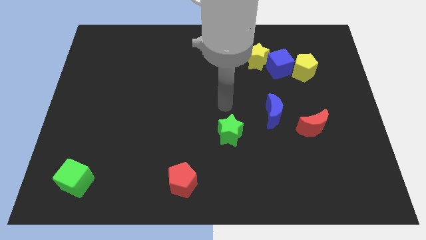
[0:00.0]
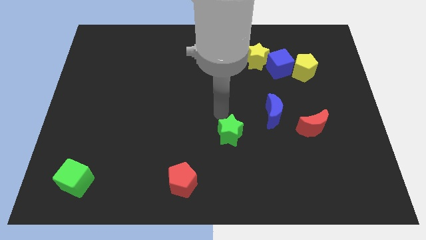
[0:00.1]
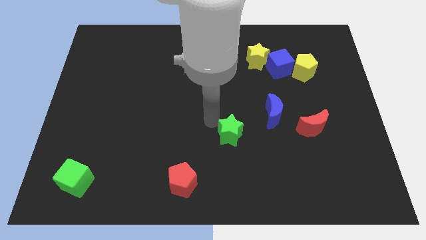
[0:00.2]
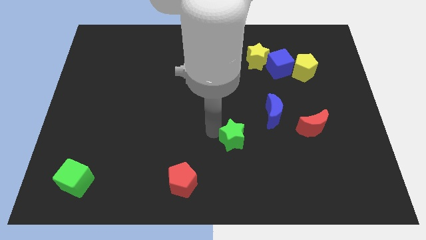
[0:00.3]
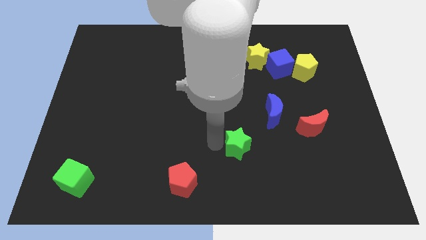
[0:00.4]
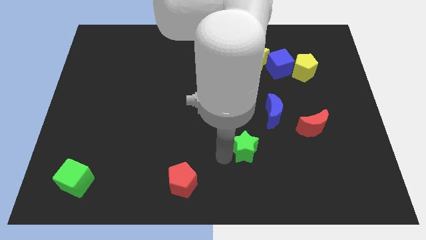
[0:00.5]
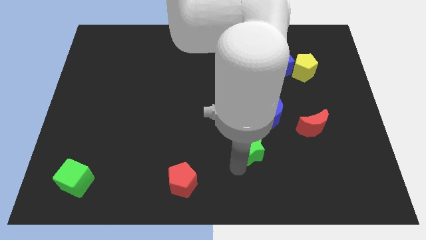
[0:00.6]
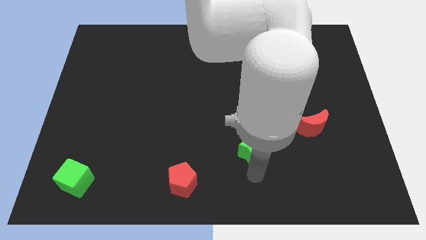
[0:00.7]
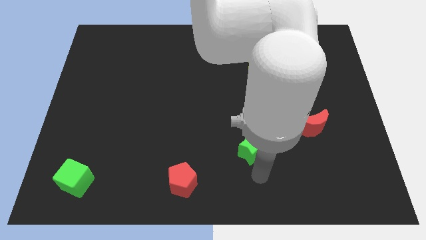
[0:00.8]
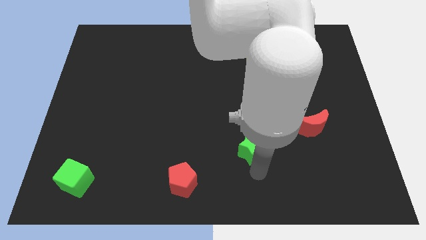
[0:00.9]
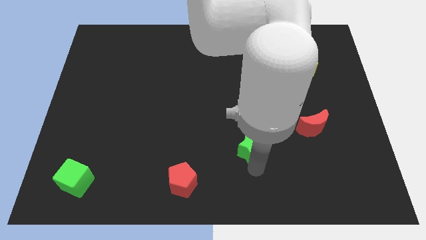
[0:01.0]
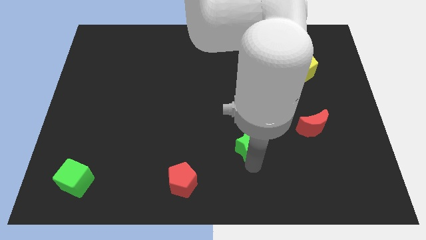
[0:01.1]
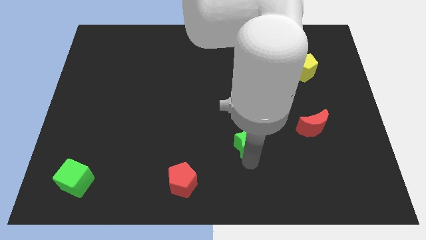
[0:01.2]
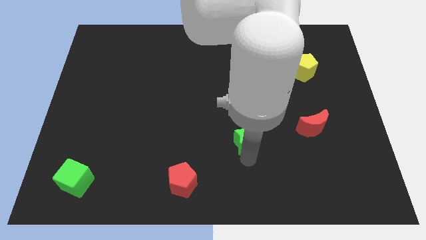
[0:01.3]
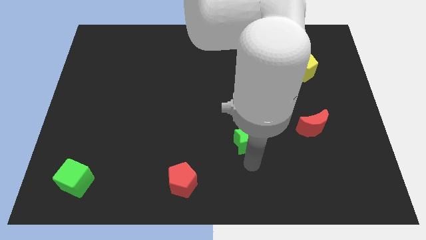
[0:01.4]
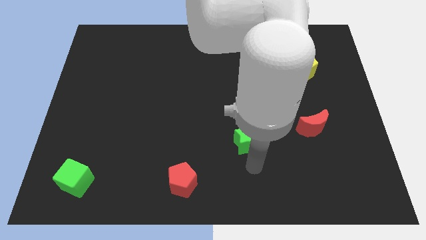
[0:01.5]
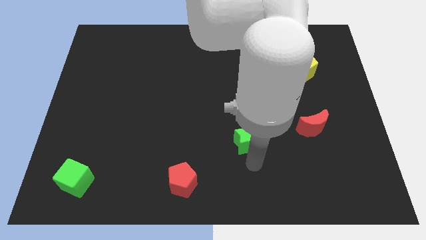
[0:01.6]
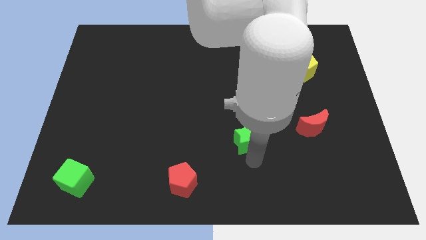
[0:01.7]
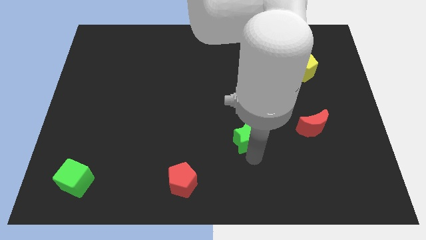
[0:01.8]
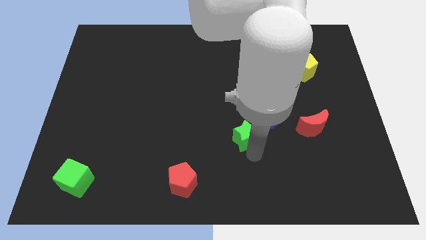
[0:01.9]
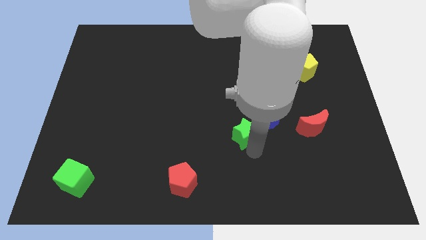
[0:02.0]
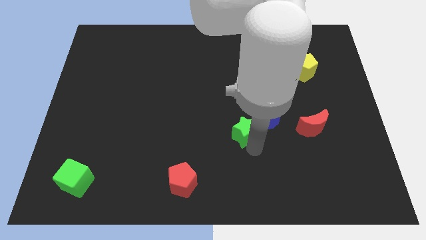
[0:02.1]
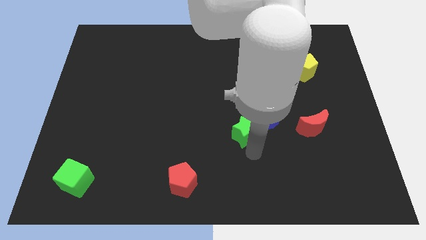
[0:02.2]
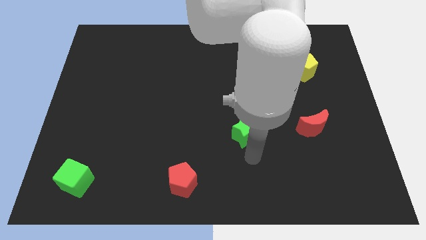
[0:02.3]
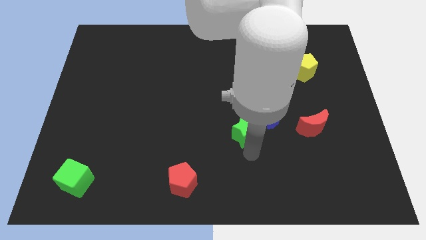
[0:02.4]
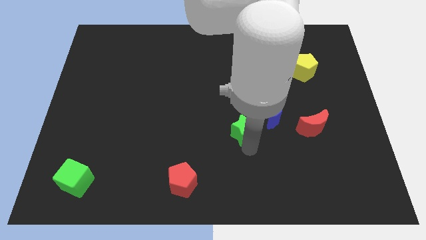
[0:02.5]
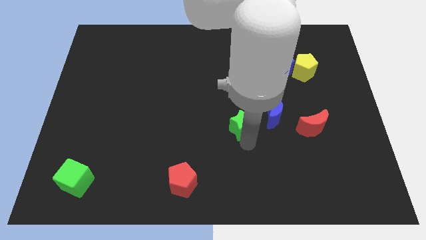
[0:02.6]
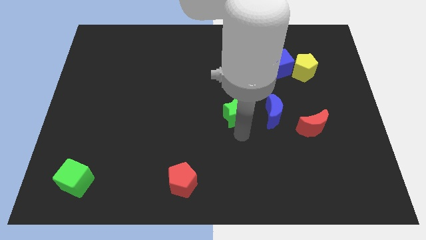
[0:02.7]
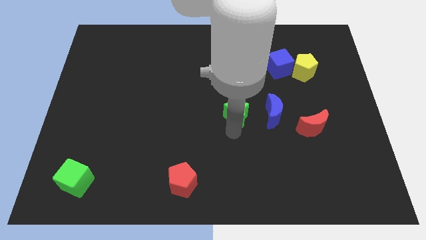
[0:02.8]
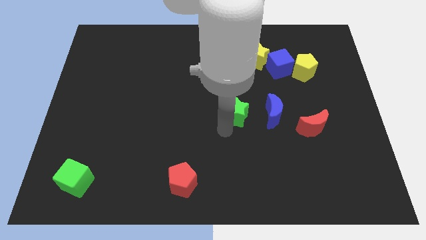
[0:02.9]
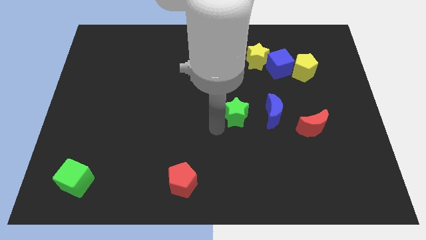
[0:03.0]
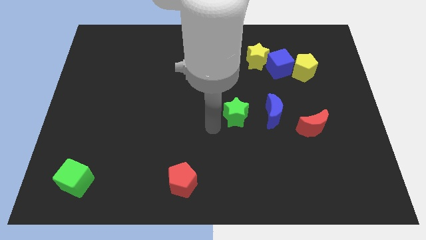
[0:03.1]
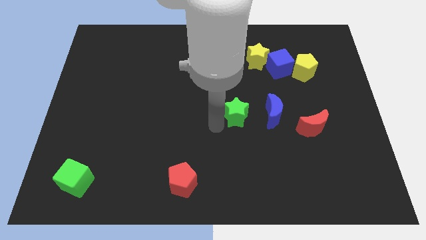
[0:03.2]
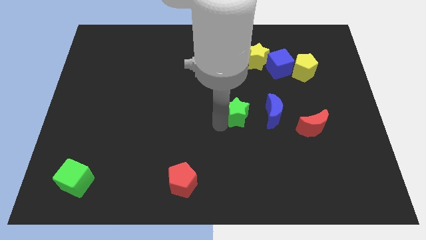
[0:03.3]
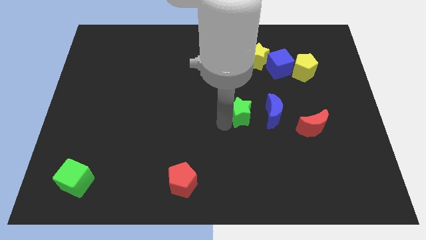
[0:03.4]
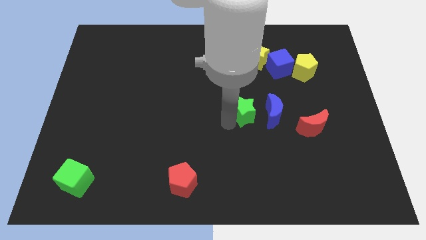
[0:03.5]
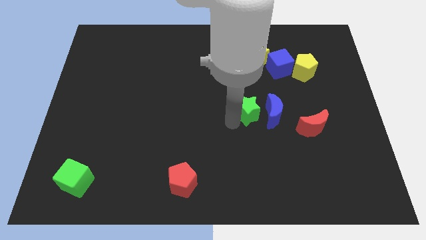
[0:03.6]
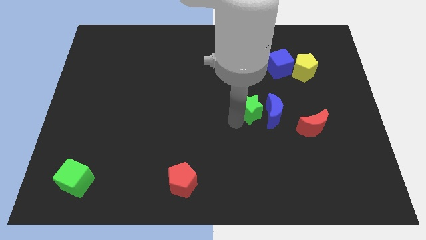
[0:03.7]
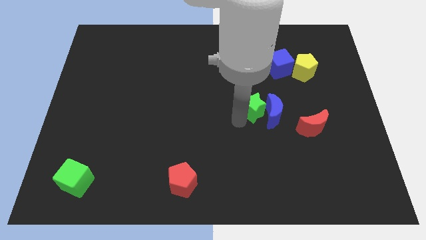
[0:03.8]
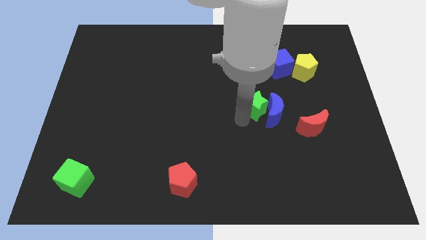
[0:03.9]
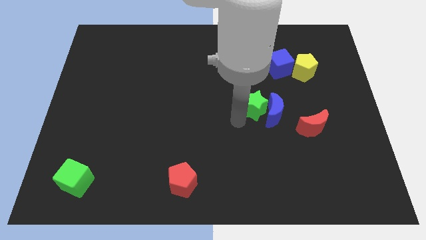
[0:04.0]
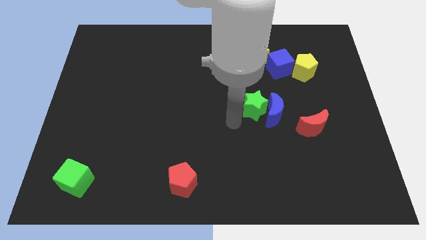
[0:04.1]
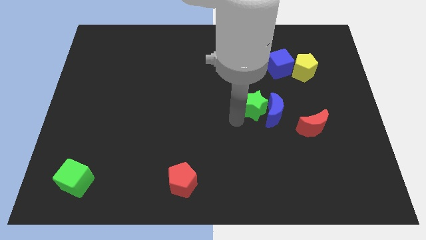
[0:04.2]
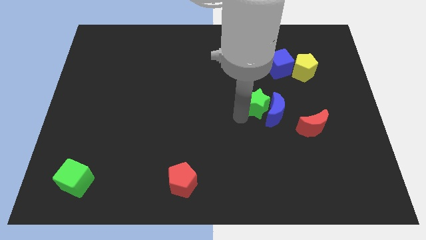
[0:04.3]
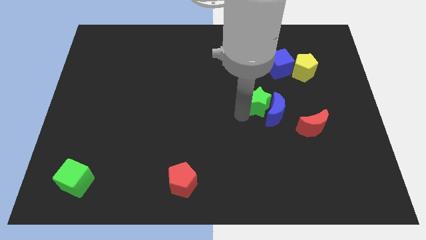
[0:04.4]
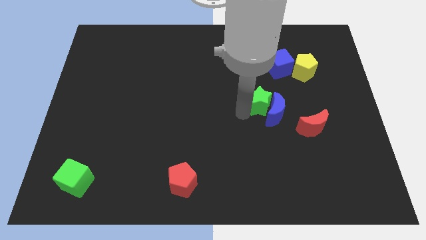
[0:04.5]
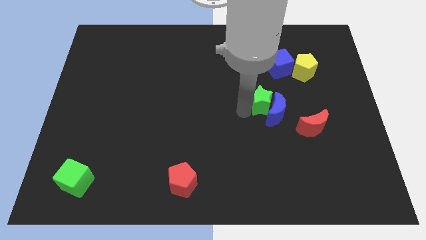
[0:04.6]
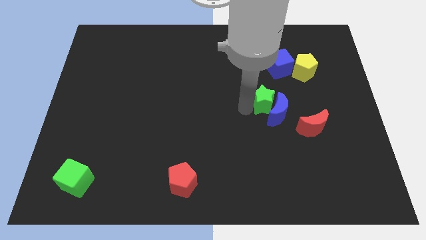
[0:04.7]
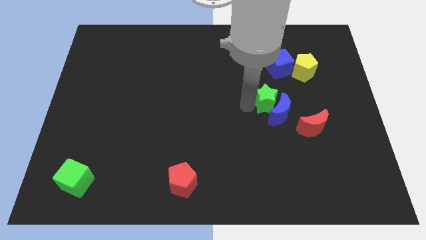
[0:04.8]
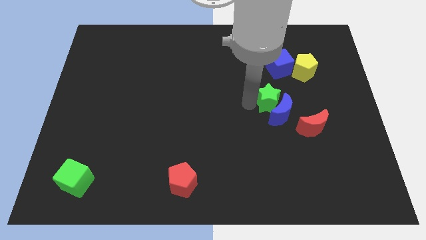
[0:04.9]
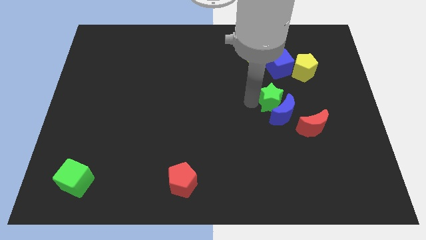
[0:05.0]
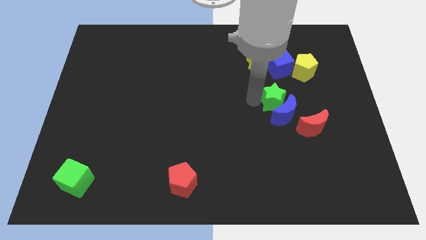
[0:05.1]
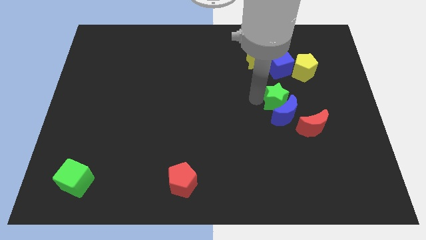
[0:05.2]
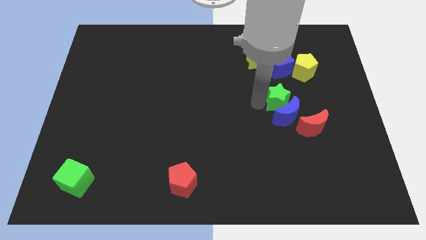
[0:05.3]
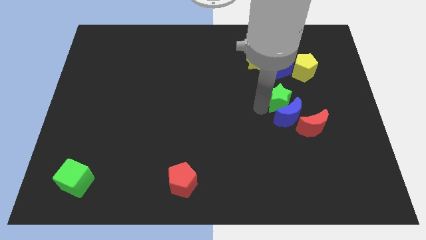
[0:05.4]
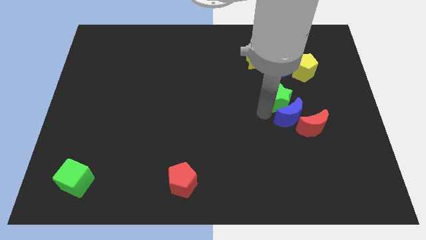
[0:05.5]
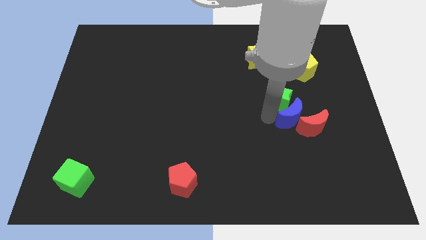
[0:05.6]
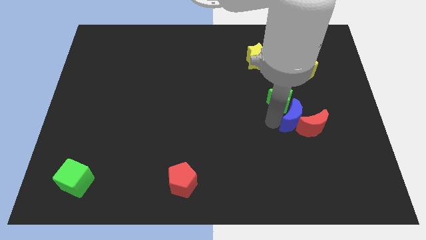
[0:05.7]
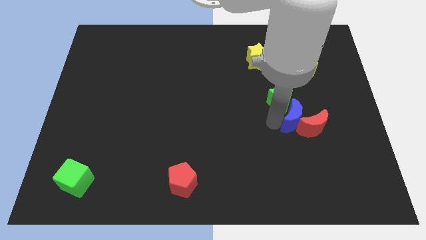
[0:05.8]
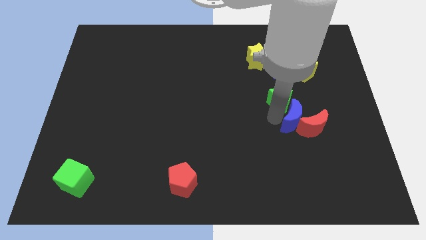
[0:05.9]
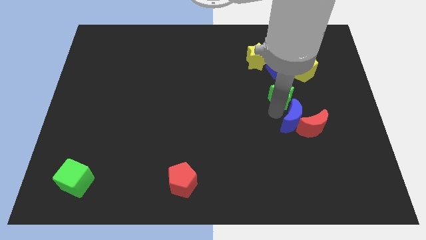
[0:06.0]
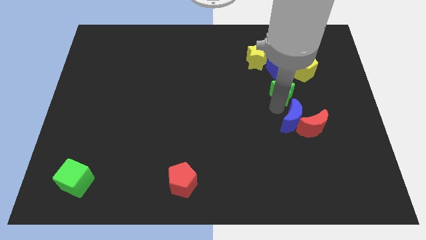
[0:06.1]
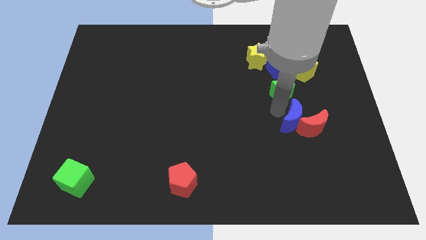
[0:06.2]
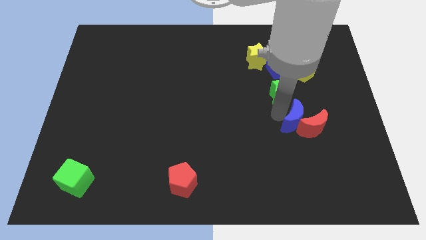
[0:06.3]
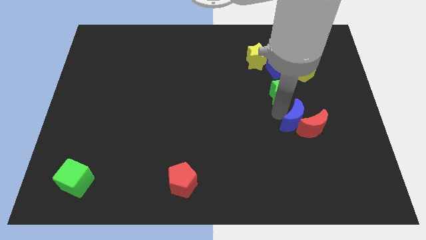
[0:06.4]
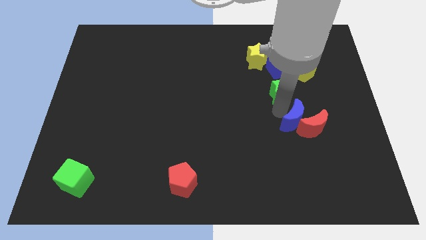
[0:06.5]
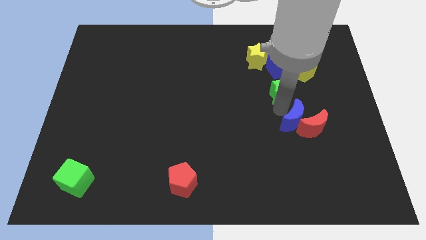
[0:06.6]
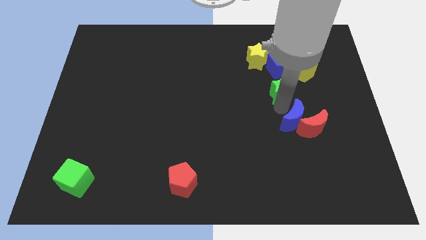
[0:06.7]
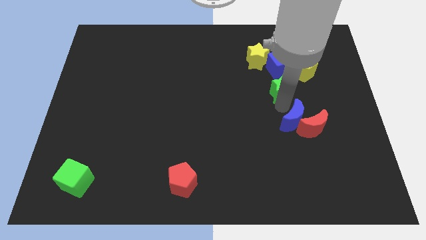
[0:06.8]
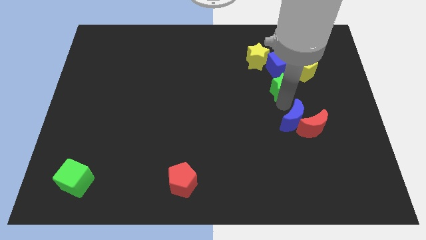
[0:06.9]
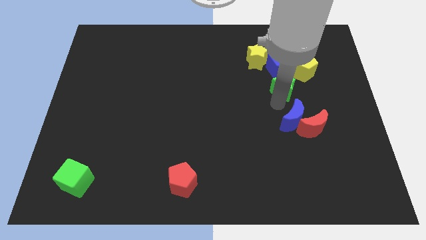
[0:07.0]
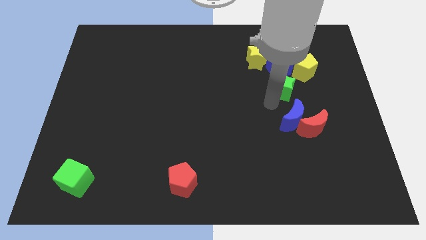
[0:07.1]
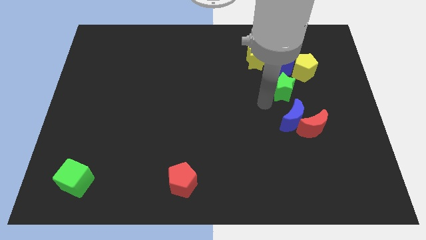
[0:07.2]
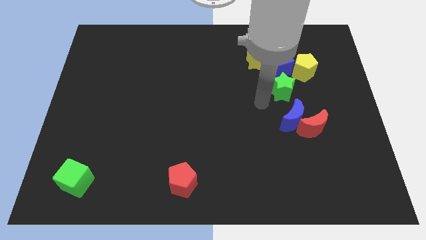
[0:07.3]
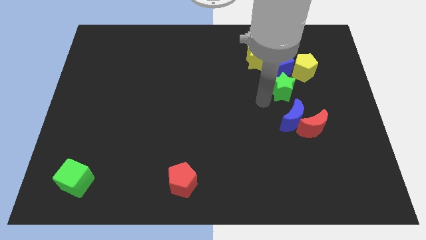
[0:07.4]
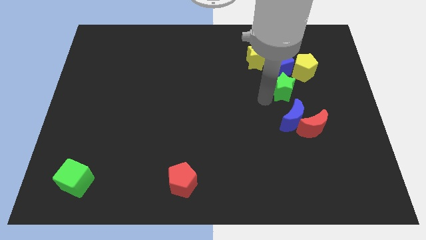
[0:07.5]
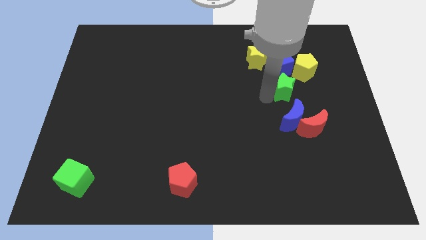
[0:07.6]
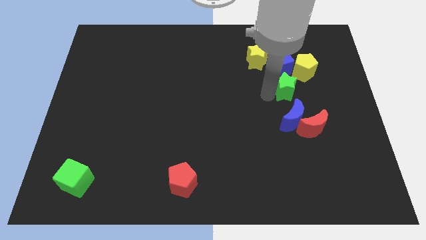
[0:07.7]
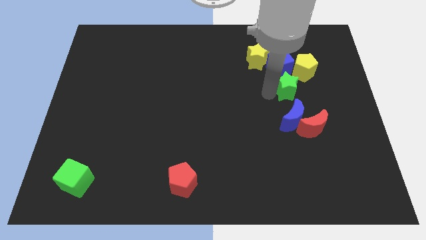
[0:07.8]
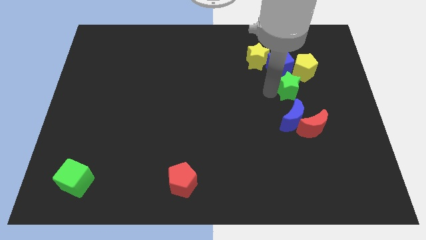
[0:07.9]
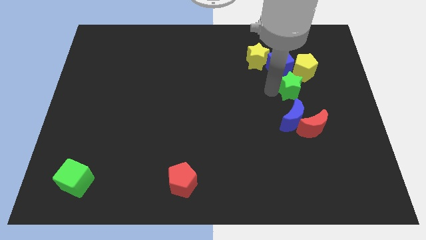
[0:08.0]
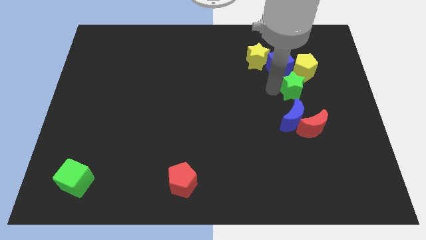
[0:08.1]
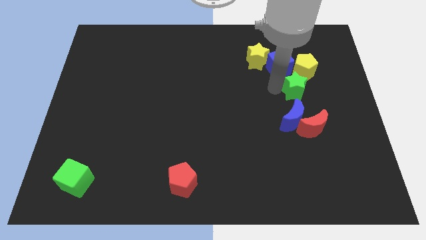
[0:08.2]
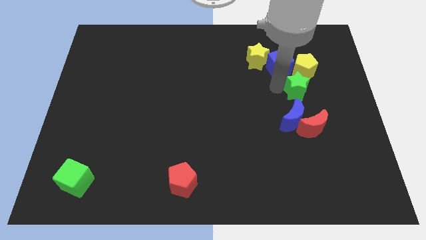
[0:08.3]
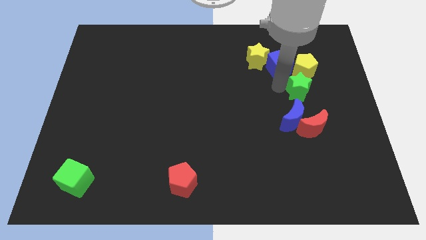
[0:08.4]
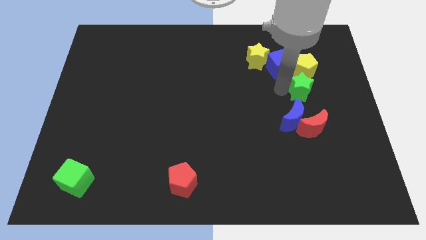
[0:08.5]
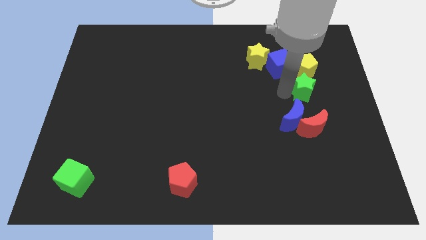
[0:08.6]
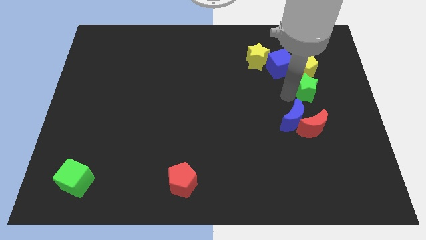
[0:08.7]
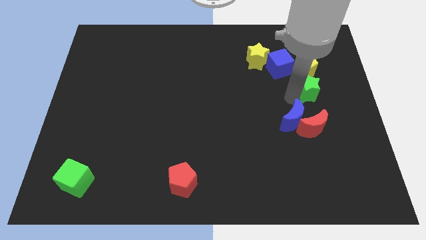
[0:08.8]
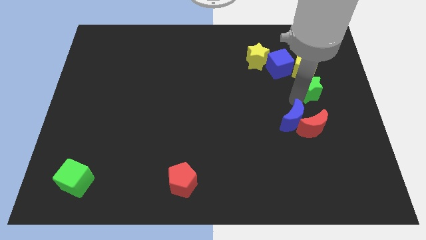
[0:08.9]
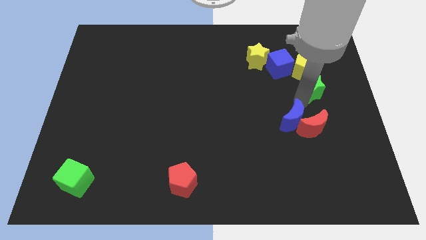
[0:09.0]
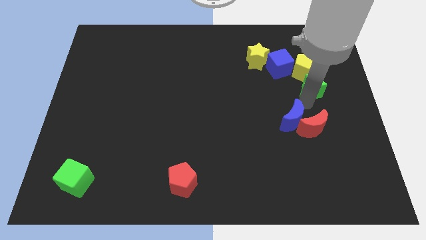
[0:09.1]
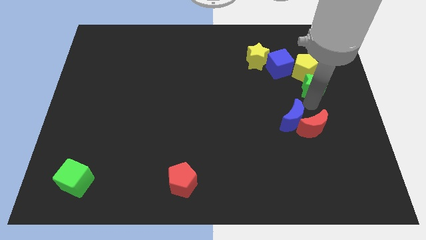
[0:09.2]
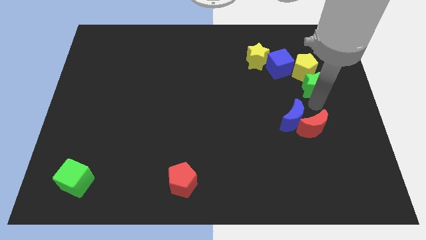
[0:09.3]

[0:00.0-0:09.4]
put the green star next to the yellow pentagon
